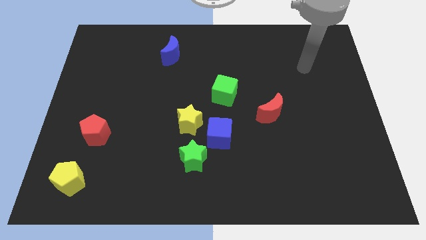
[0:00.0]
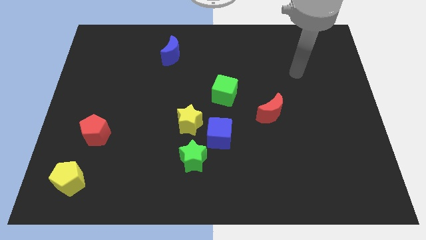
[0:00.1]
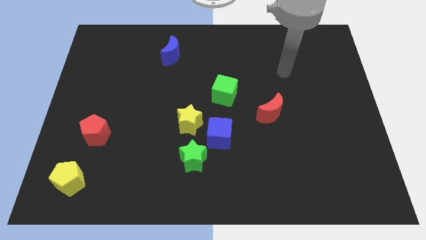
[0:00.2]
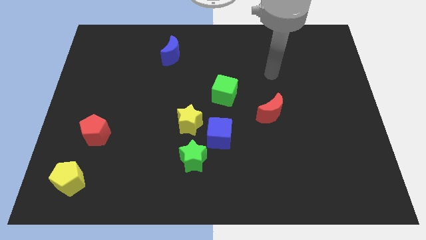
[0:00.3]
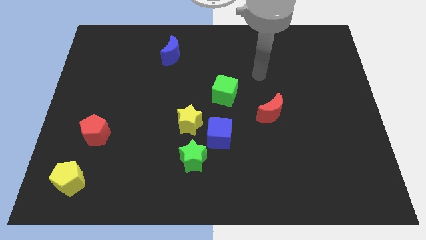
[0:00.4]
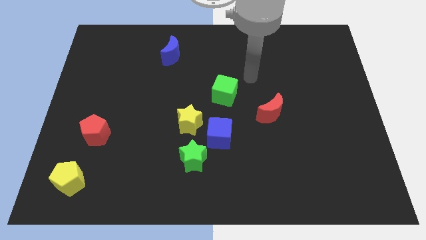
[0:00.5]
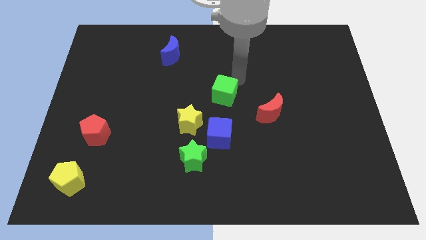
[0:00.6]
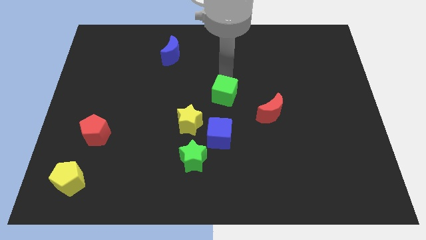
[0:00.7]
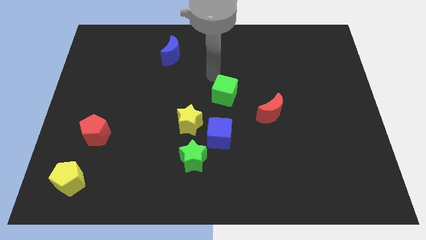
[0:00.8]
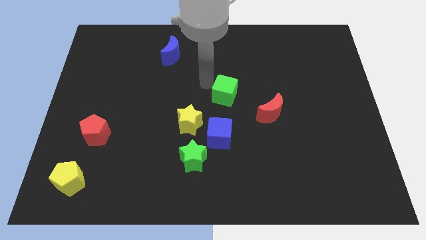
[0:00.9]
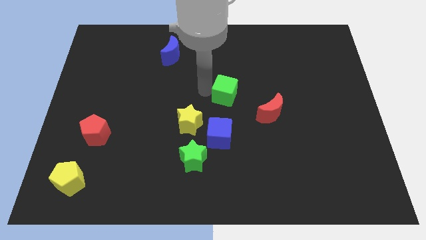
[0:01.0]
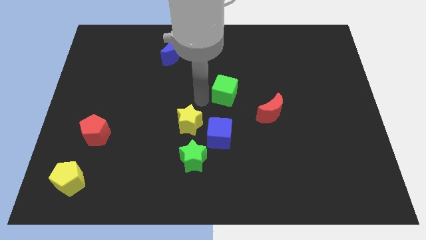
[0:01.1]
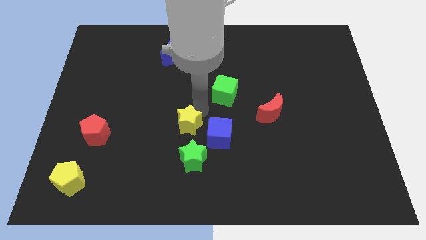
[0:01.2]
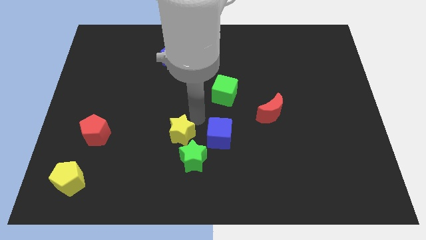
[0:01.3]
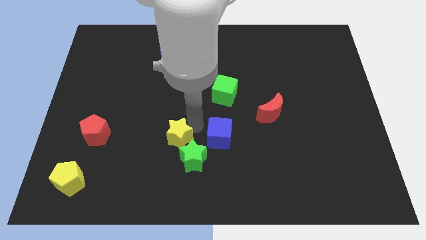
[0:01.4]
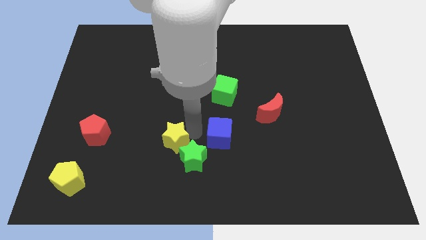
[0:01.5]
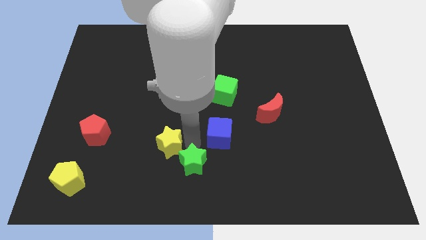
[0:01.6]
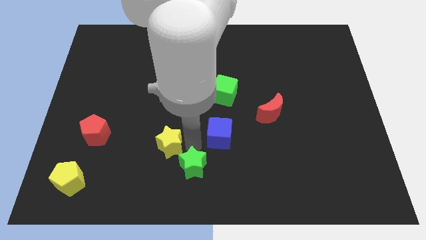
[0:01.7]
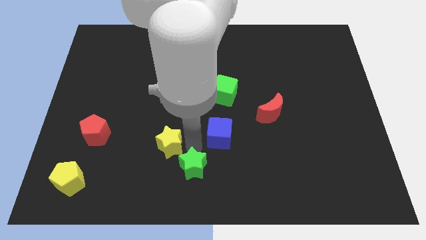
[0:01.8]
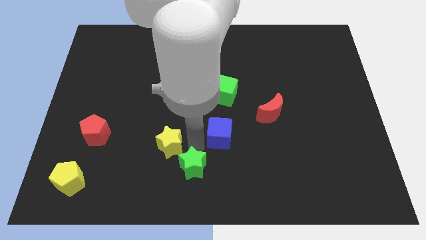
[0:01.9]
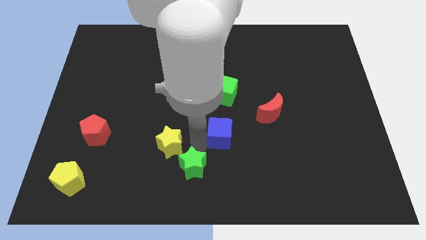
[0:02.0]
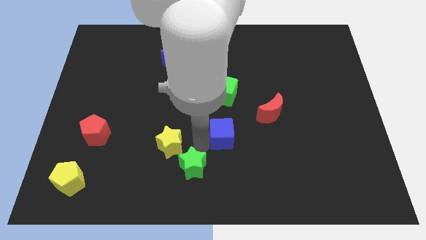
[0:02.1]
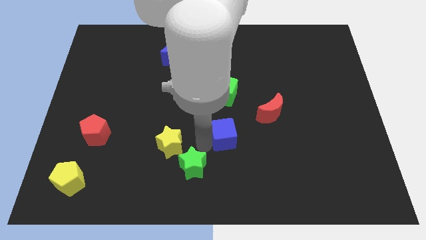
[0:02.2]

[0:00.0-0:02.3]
pull the blue cube apart from the yellow star and green star

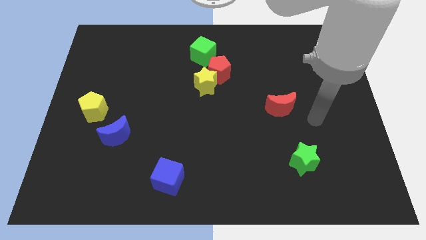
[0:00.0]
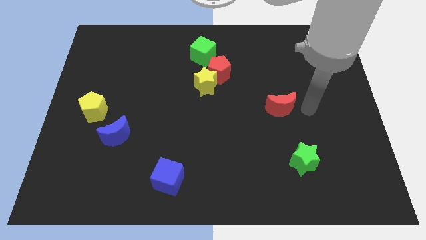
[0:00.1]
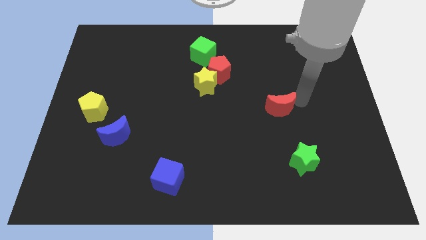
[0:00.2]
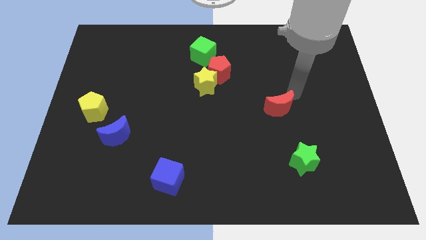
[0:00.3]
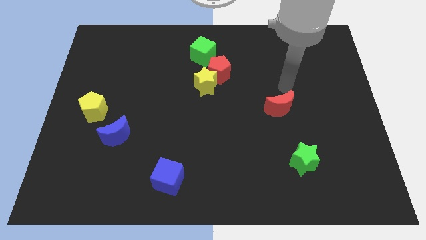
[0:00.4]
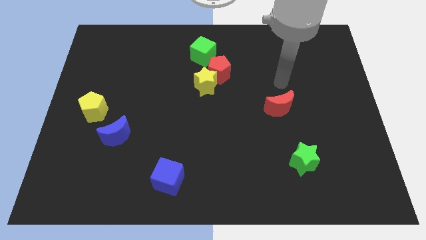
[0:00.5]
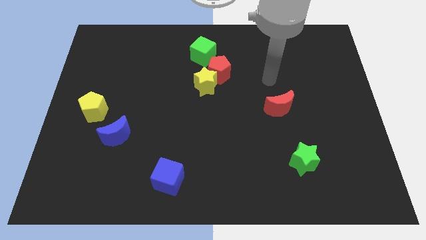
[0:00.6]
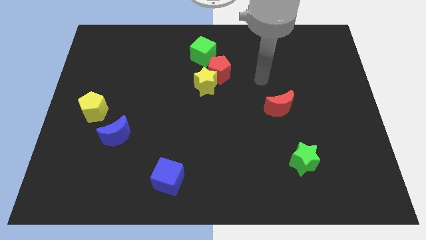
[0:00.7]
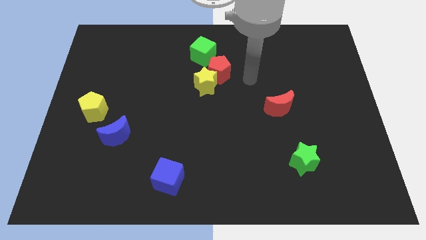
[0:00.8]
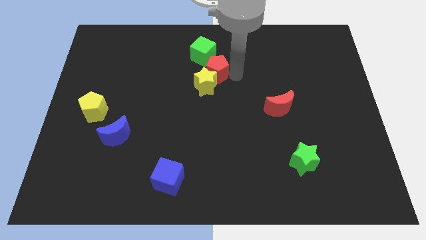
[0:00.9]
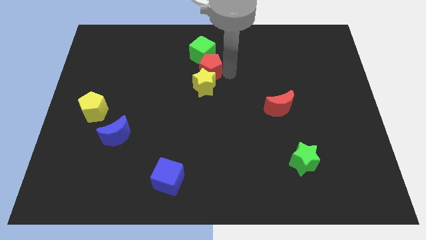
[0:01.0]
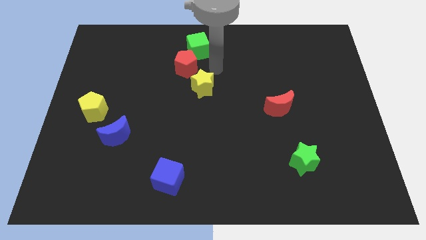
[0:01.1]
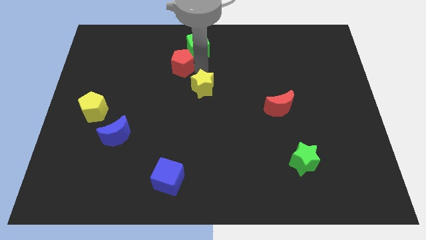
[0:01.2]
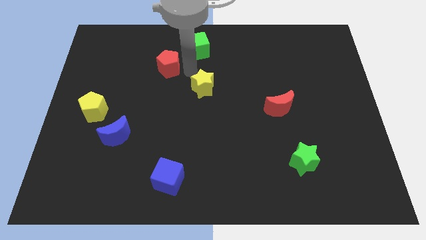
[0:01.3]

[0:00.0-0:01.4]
separate the yellow star from the red pentagon

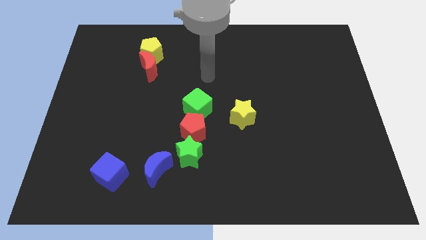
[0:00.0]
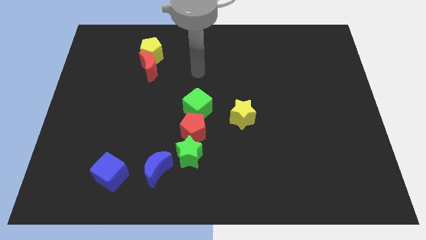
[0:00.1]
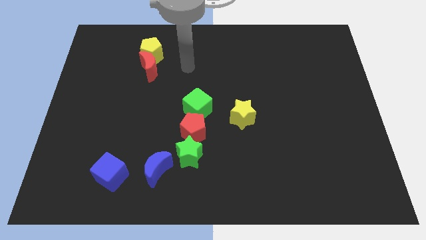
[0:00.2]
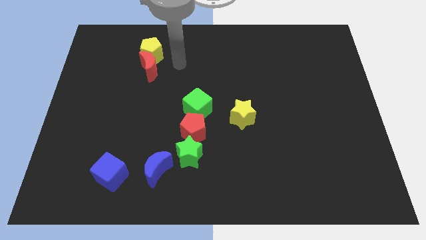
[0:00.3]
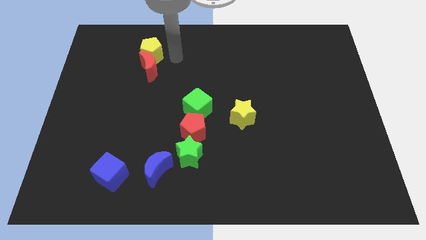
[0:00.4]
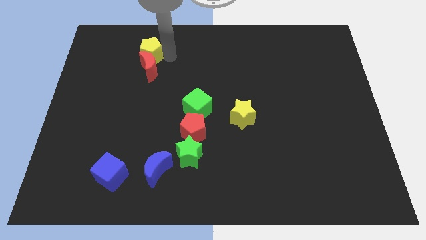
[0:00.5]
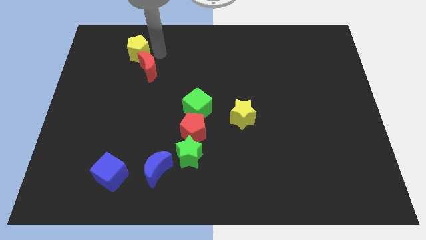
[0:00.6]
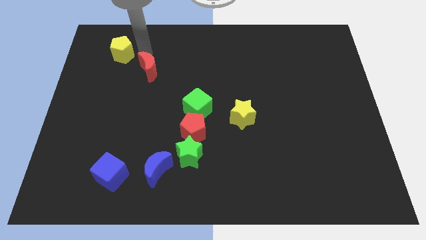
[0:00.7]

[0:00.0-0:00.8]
pull the red moon apart from the yellow pentagon

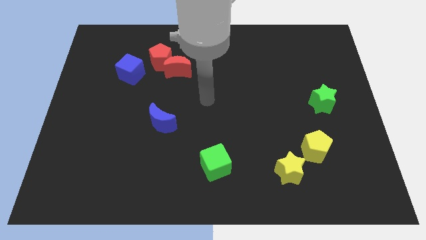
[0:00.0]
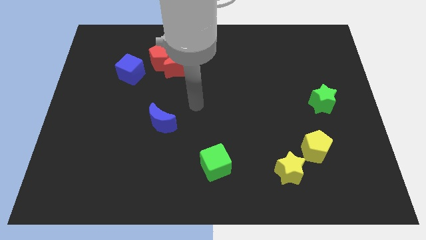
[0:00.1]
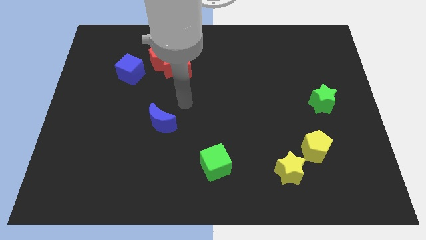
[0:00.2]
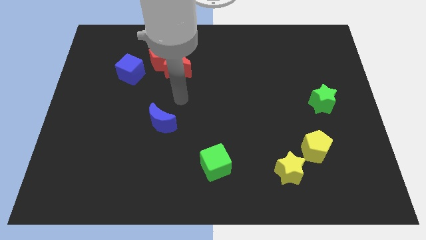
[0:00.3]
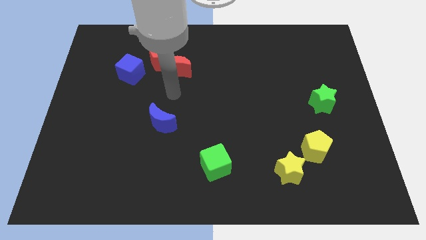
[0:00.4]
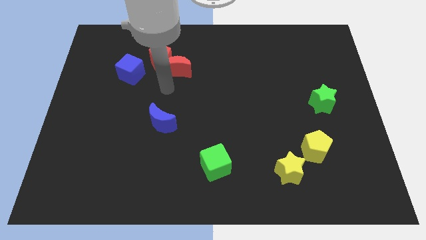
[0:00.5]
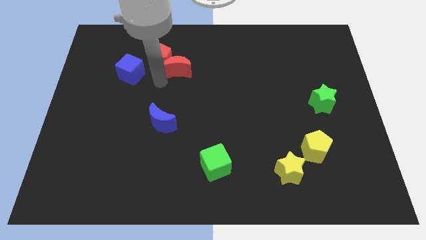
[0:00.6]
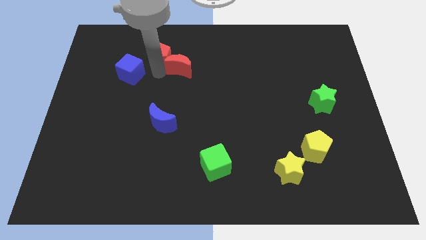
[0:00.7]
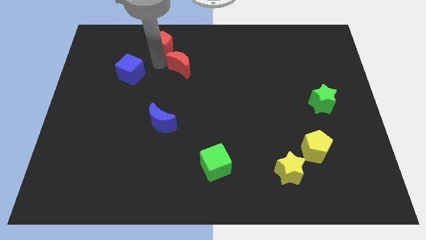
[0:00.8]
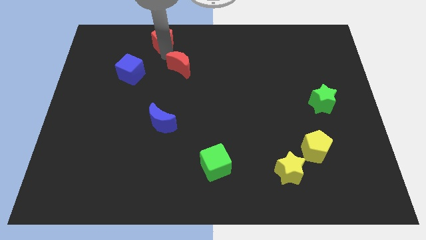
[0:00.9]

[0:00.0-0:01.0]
pull the red moon apart from the red pentagon

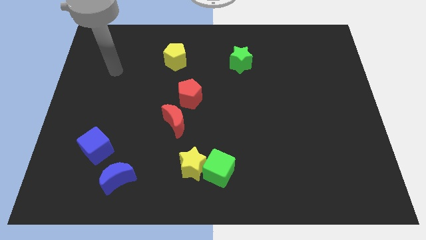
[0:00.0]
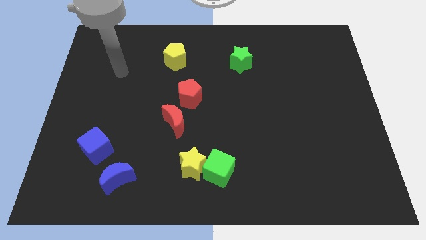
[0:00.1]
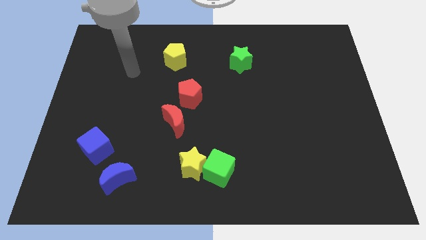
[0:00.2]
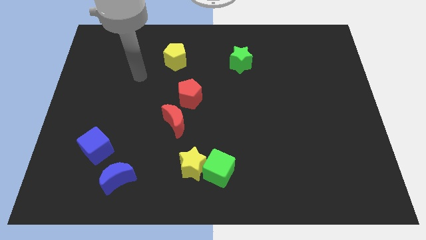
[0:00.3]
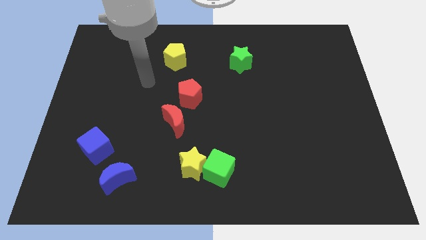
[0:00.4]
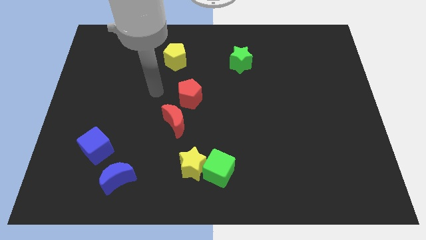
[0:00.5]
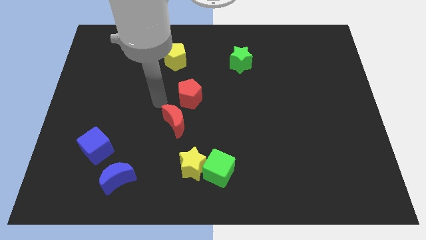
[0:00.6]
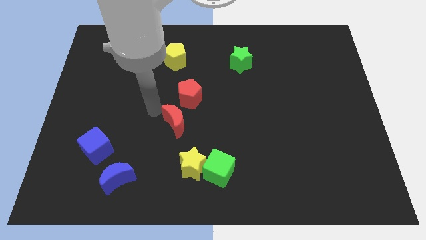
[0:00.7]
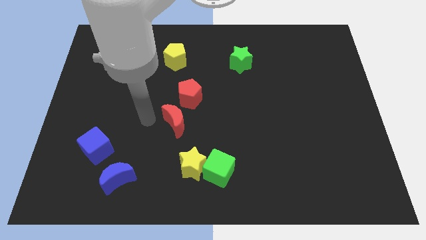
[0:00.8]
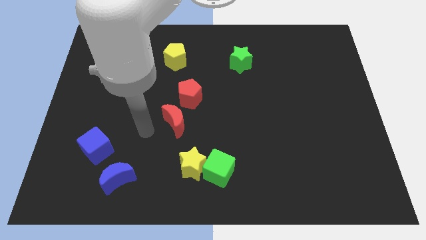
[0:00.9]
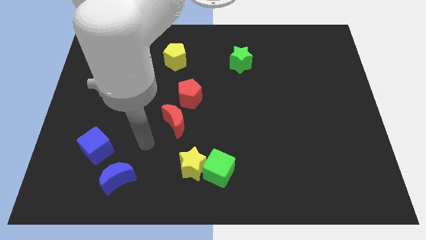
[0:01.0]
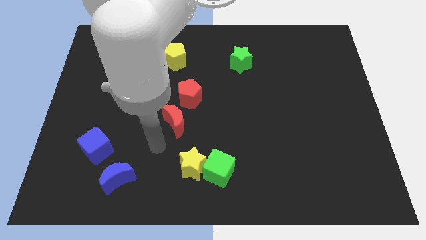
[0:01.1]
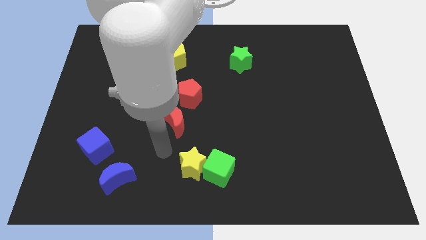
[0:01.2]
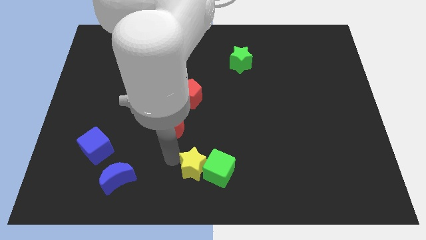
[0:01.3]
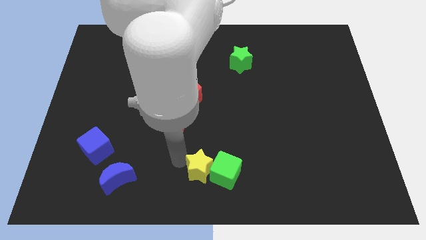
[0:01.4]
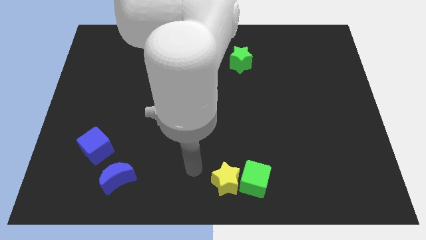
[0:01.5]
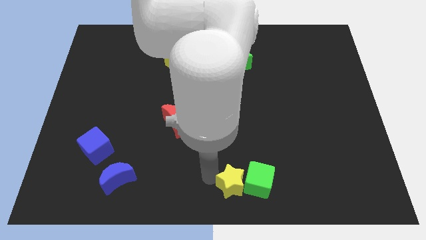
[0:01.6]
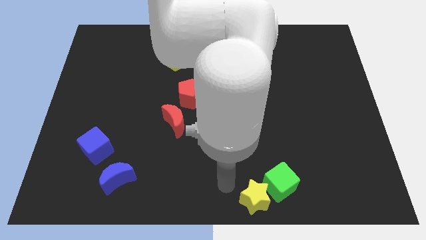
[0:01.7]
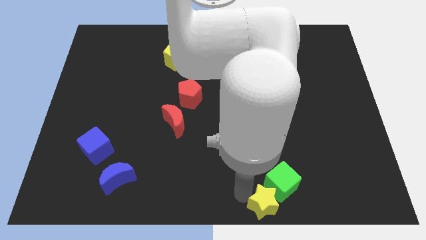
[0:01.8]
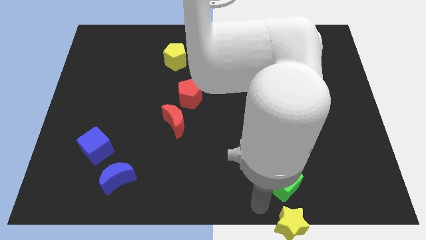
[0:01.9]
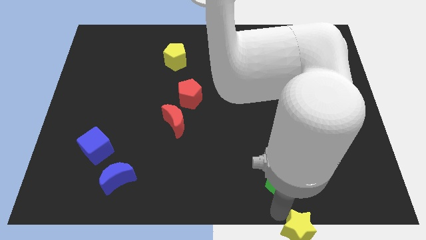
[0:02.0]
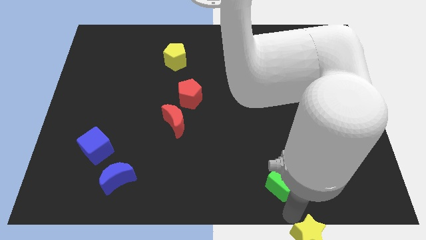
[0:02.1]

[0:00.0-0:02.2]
move the green cube away from the yellow star

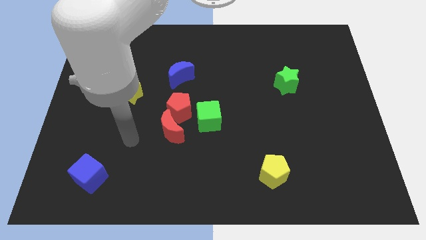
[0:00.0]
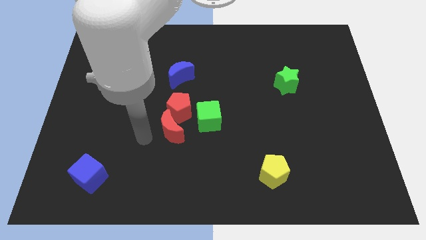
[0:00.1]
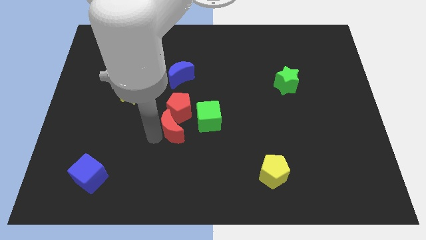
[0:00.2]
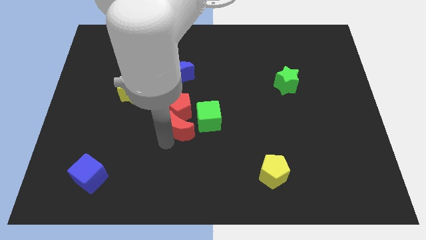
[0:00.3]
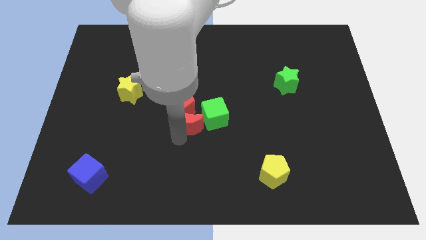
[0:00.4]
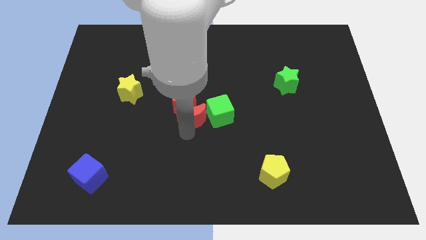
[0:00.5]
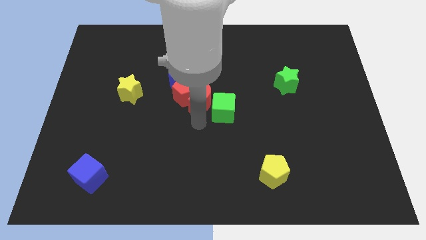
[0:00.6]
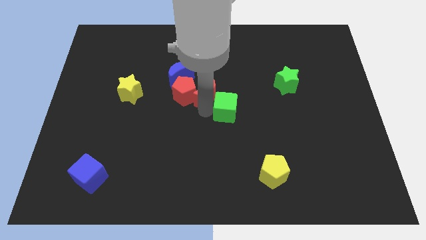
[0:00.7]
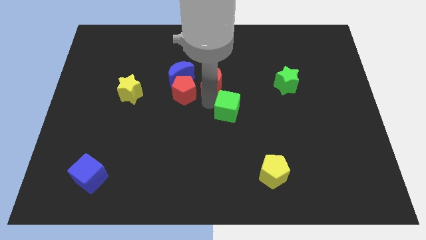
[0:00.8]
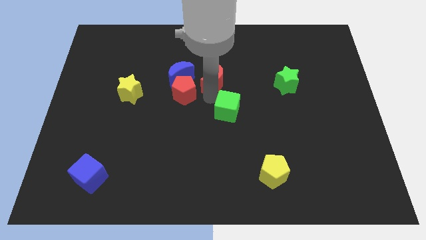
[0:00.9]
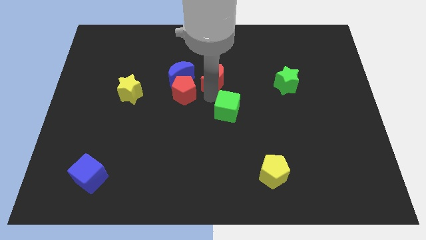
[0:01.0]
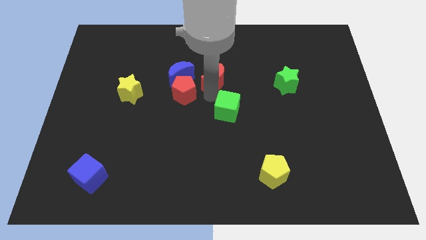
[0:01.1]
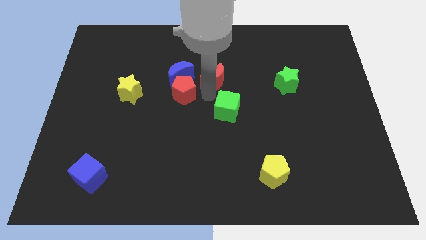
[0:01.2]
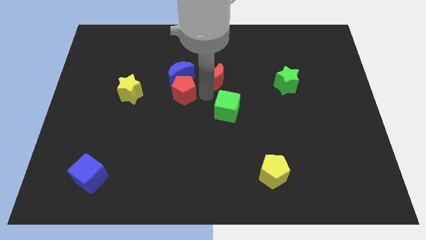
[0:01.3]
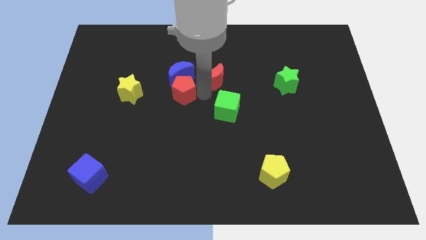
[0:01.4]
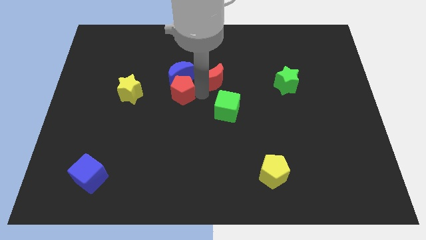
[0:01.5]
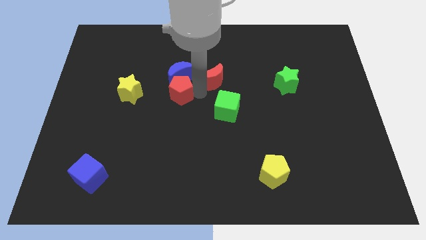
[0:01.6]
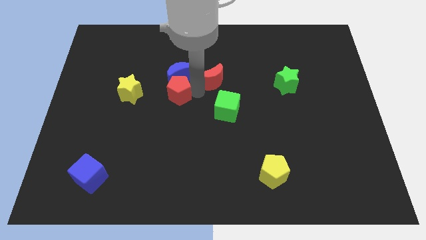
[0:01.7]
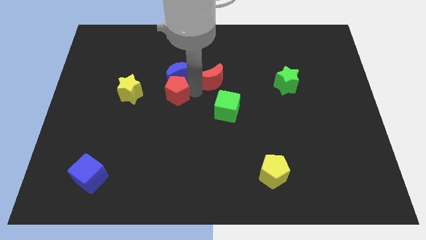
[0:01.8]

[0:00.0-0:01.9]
separate the red pentagon from the red moon and green cube
